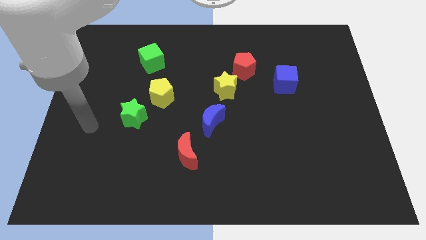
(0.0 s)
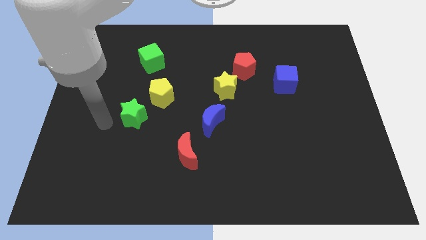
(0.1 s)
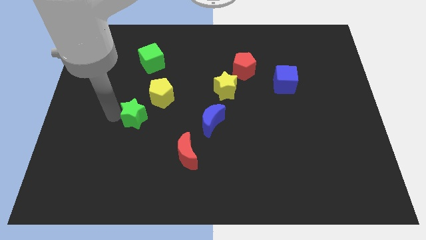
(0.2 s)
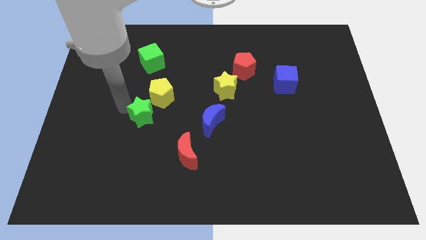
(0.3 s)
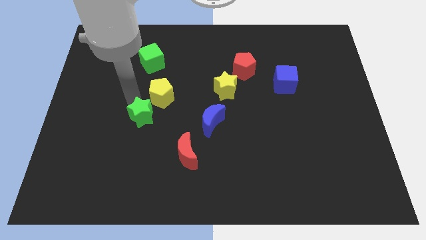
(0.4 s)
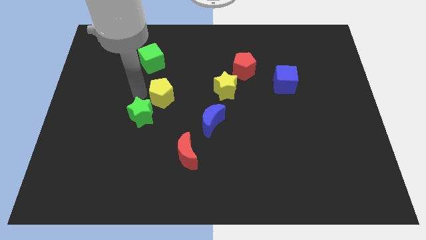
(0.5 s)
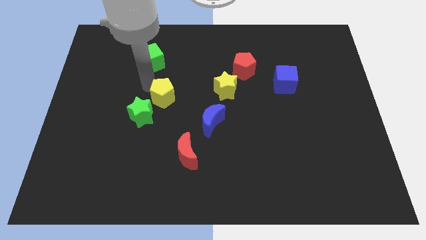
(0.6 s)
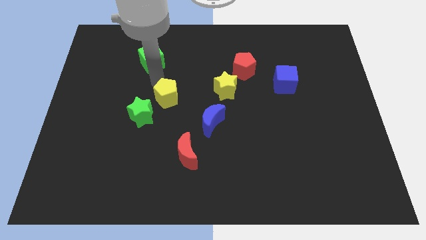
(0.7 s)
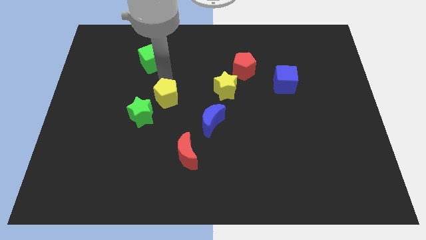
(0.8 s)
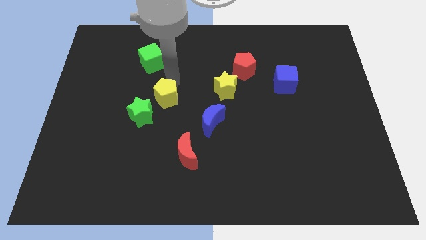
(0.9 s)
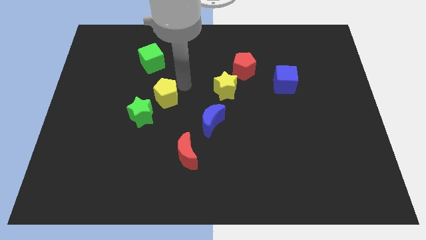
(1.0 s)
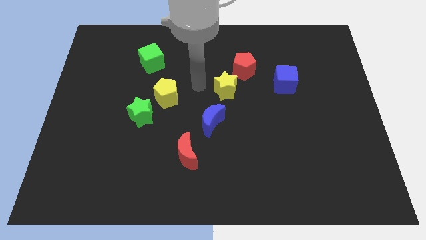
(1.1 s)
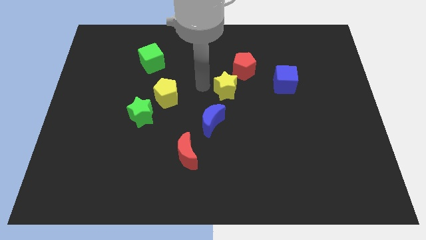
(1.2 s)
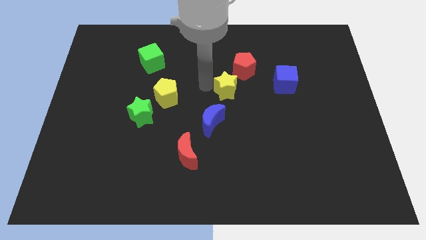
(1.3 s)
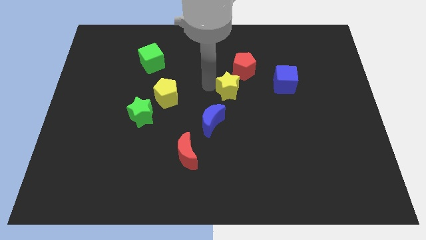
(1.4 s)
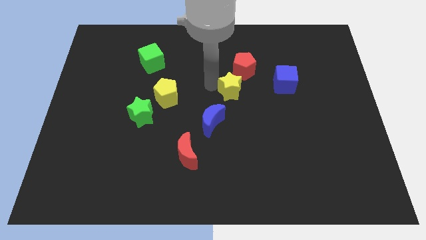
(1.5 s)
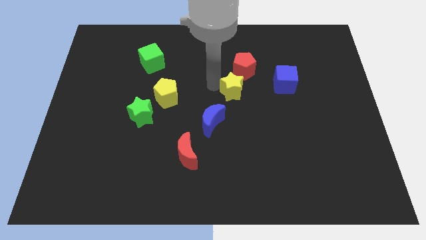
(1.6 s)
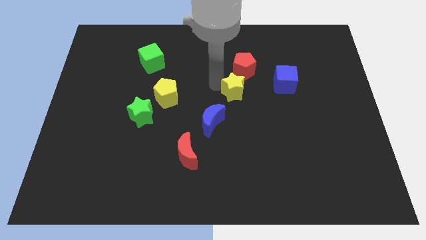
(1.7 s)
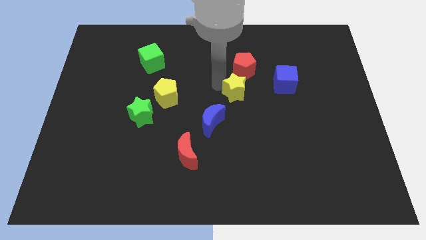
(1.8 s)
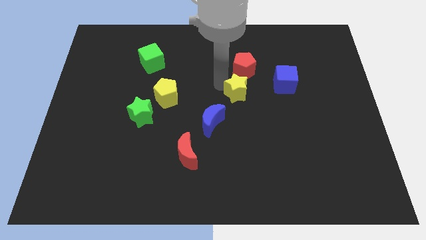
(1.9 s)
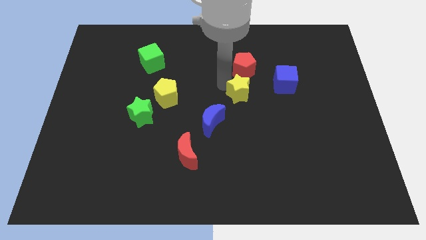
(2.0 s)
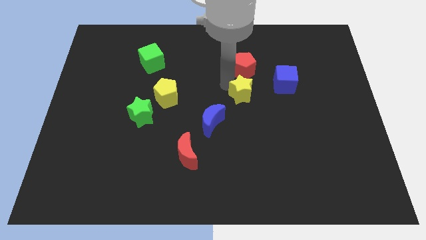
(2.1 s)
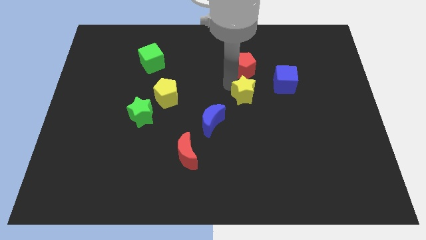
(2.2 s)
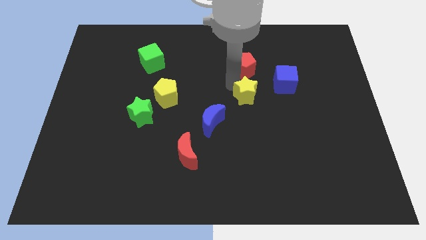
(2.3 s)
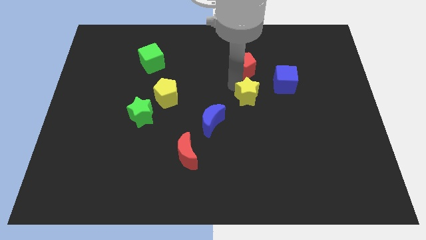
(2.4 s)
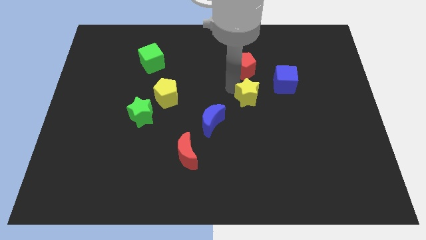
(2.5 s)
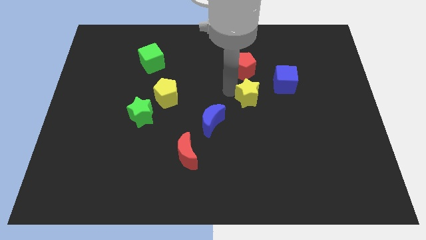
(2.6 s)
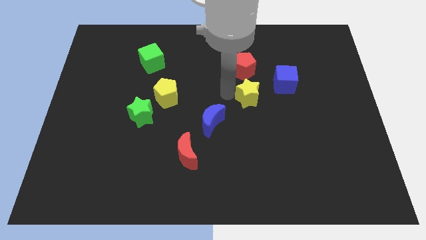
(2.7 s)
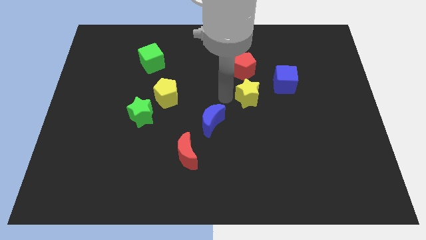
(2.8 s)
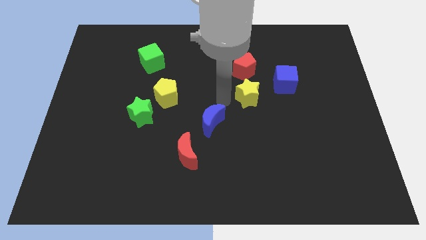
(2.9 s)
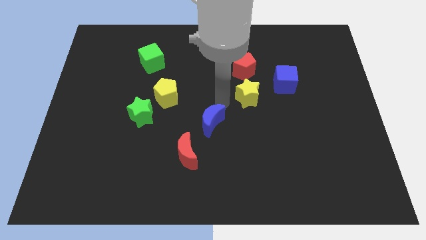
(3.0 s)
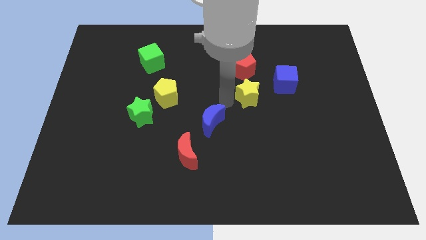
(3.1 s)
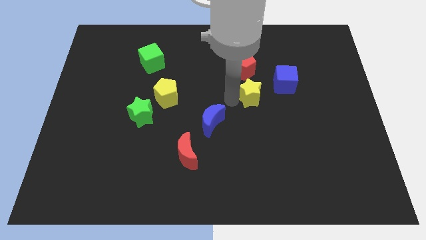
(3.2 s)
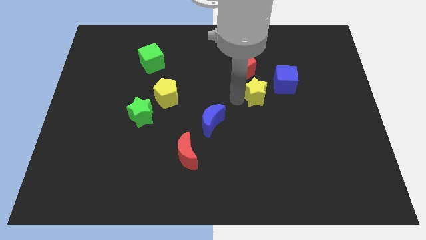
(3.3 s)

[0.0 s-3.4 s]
slightly push the yellow star right

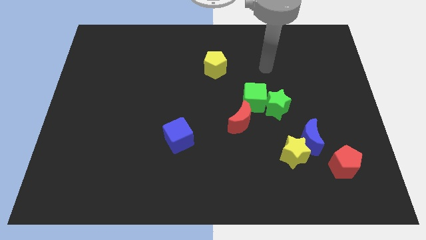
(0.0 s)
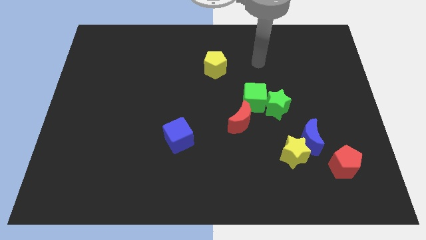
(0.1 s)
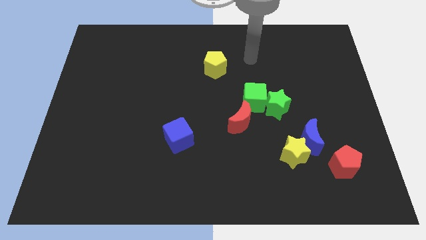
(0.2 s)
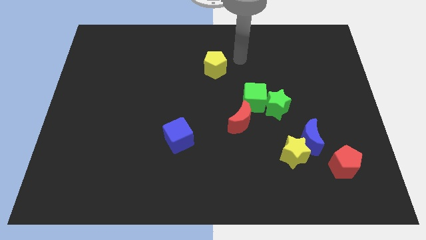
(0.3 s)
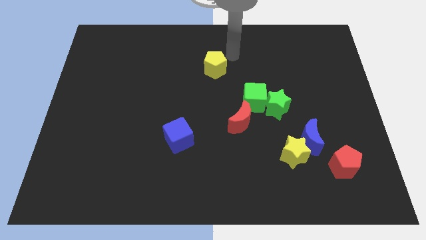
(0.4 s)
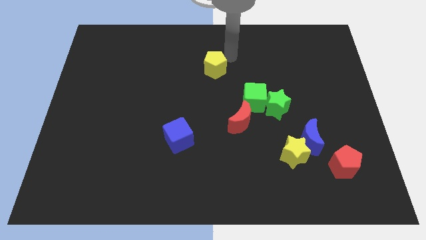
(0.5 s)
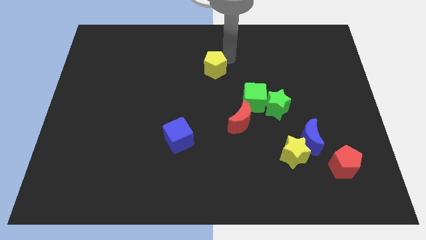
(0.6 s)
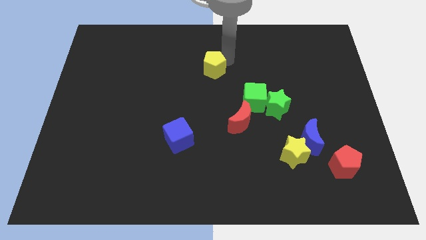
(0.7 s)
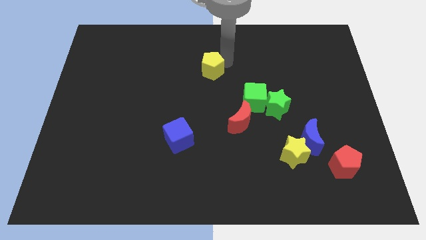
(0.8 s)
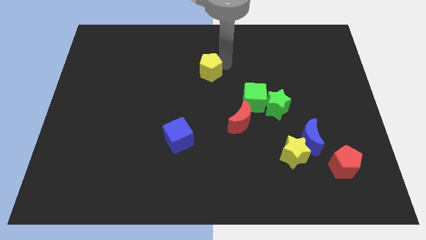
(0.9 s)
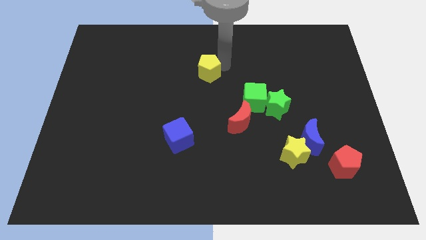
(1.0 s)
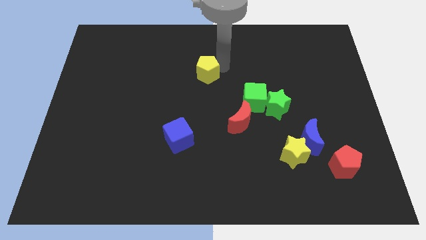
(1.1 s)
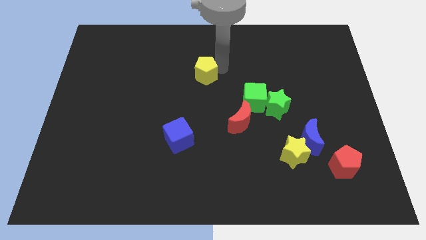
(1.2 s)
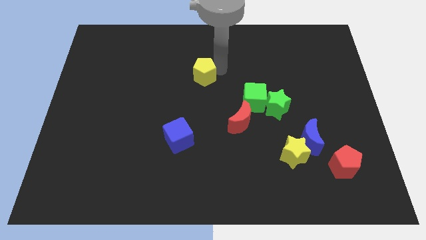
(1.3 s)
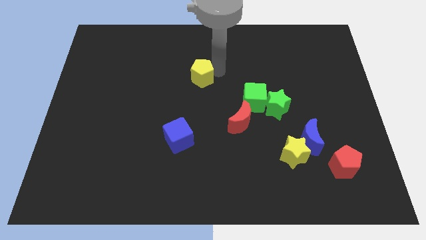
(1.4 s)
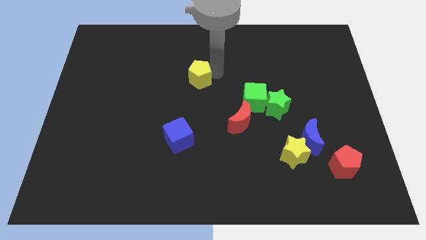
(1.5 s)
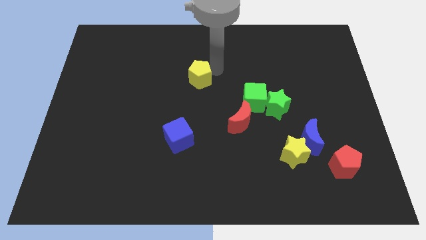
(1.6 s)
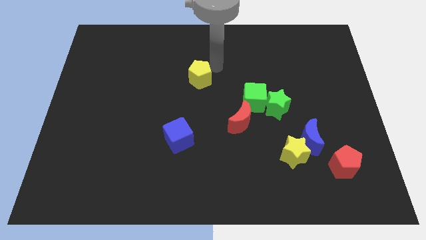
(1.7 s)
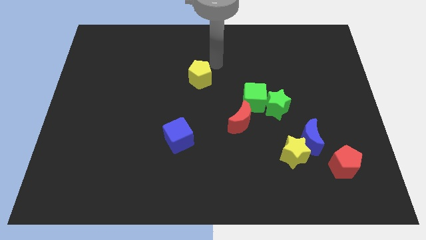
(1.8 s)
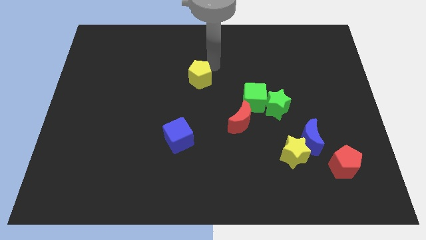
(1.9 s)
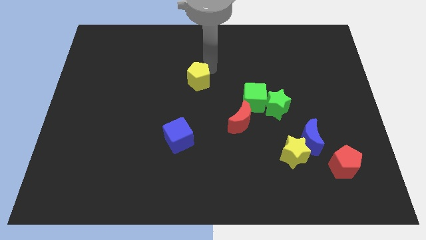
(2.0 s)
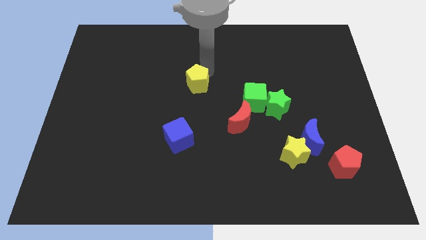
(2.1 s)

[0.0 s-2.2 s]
push the yellow pentagon slightly down and left diagonally

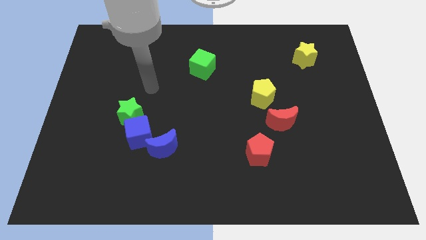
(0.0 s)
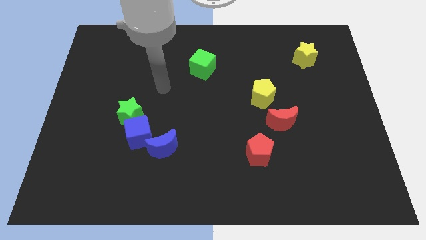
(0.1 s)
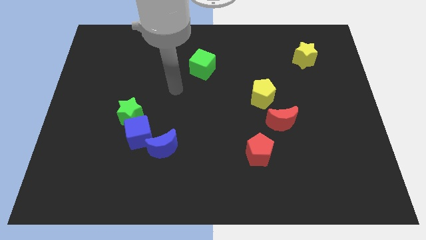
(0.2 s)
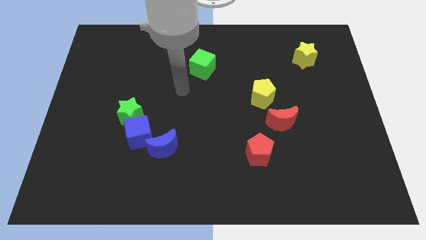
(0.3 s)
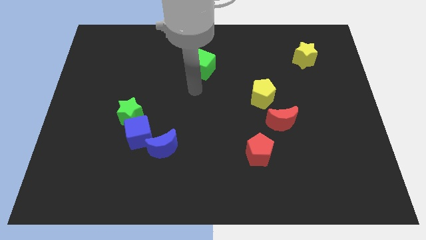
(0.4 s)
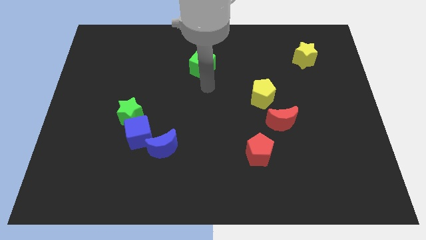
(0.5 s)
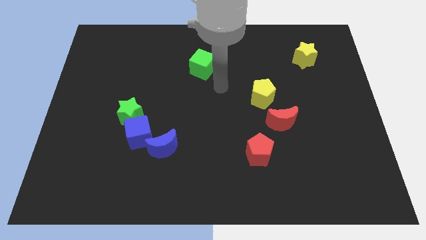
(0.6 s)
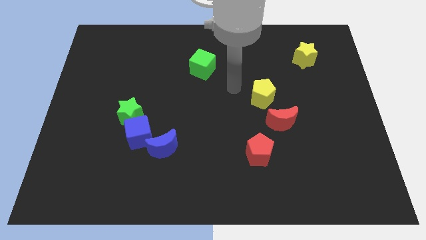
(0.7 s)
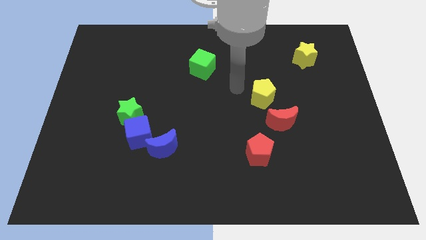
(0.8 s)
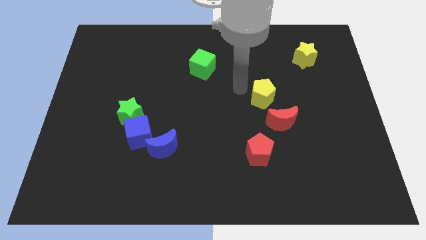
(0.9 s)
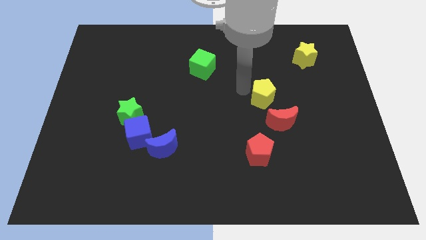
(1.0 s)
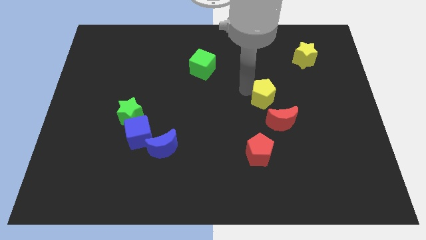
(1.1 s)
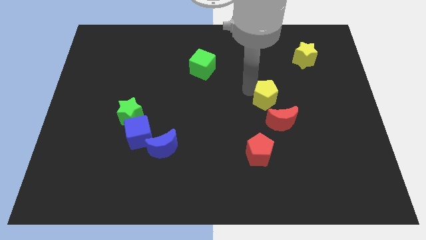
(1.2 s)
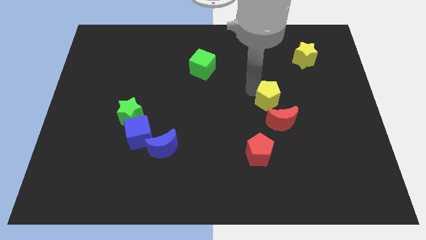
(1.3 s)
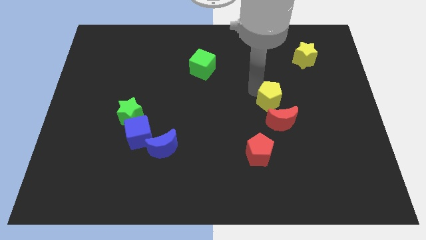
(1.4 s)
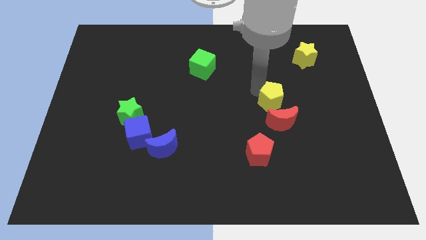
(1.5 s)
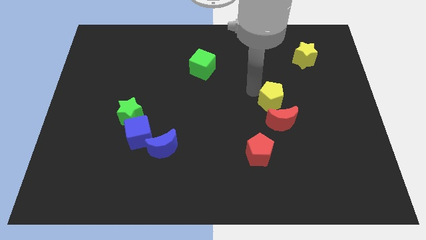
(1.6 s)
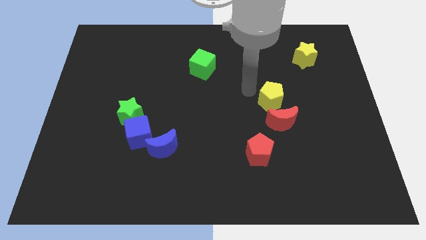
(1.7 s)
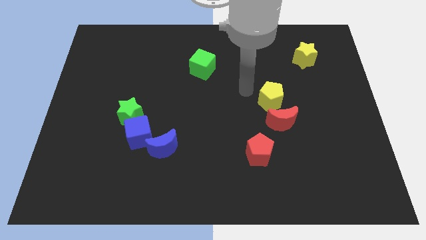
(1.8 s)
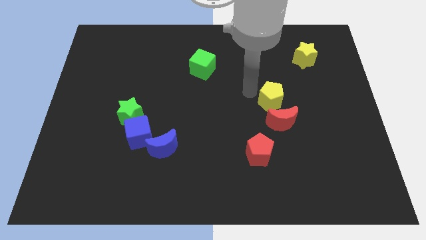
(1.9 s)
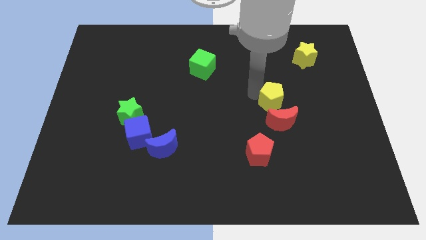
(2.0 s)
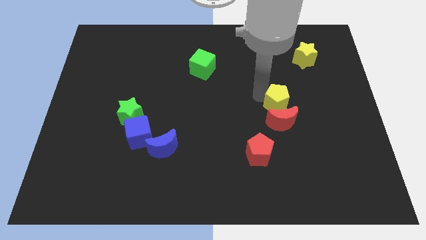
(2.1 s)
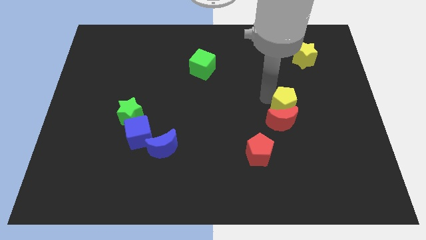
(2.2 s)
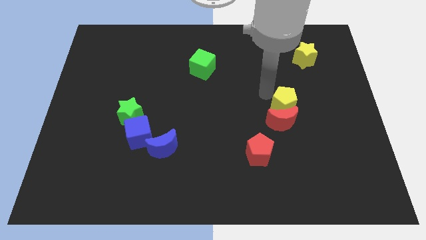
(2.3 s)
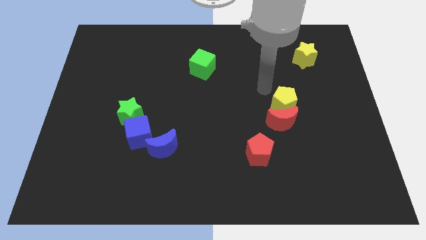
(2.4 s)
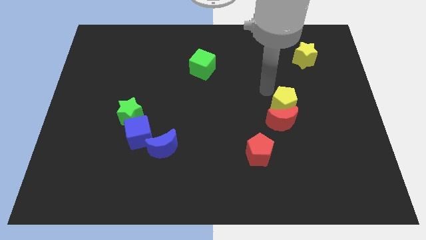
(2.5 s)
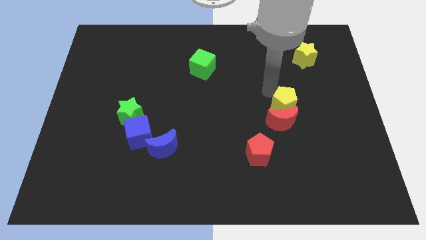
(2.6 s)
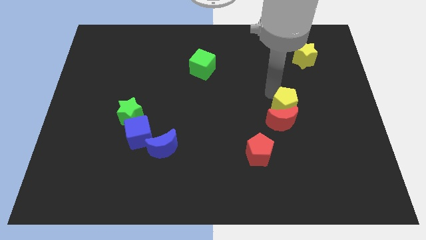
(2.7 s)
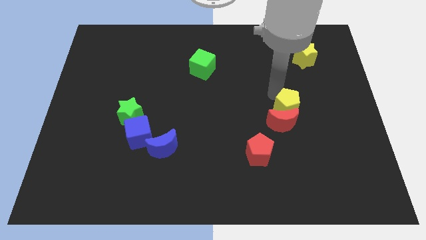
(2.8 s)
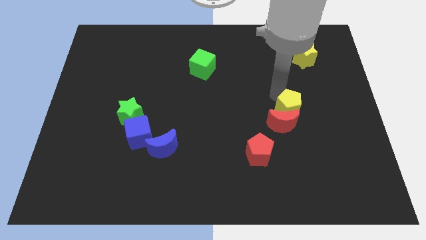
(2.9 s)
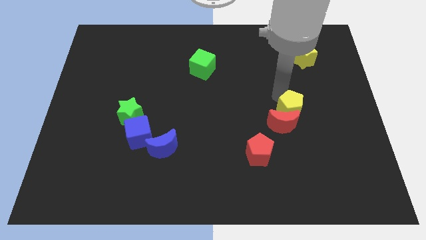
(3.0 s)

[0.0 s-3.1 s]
push the yellow pentagon diagonally downwards and to the right a little bit

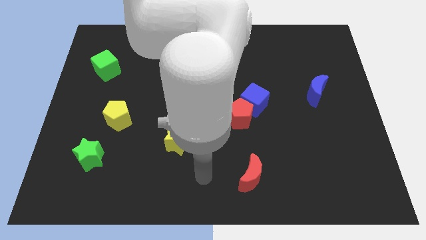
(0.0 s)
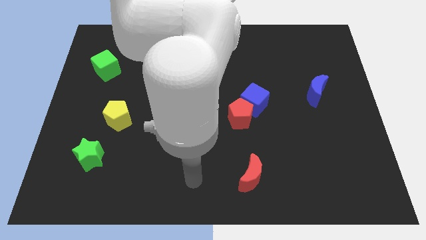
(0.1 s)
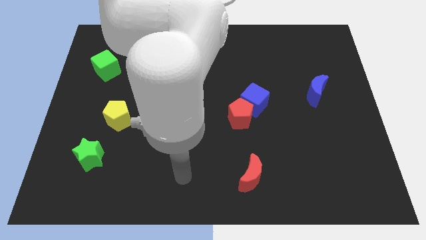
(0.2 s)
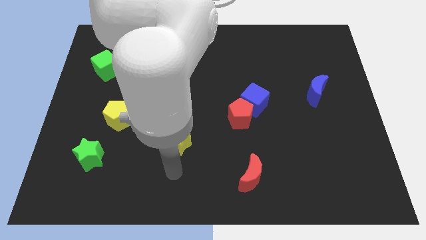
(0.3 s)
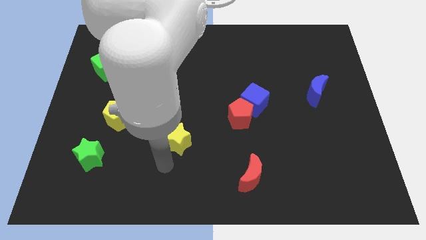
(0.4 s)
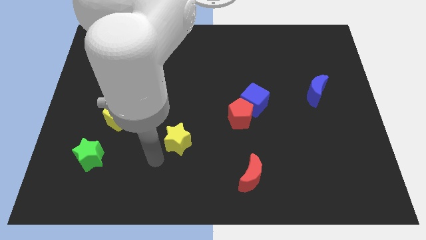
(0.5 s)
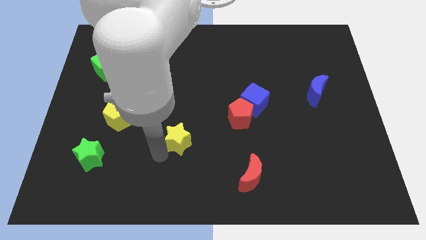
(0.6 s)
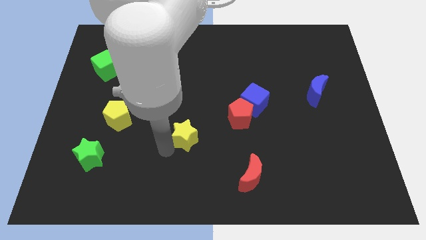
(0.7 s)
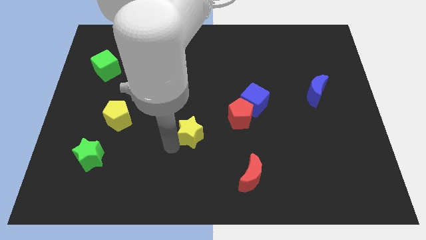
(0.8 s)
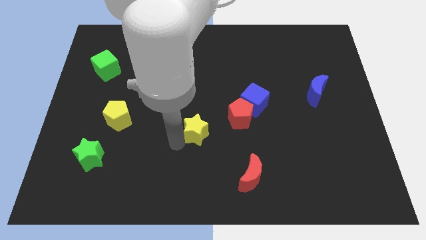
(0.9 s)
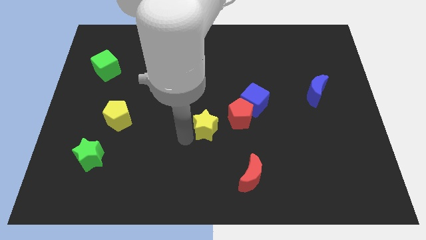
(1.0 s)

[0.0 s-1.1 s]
slightly push the yellow star up and then to the right
